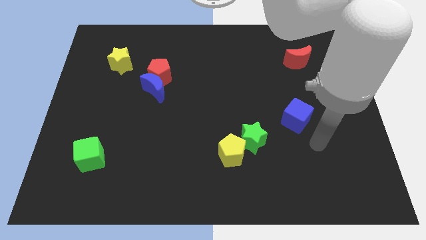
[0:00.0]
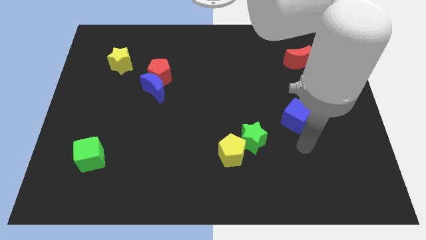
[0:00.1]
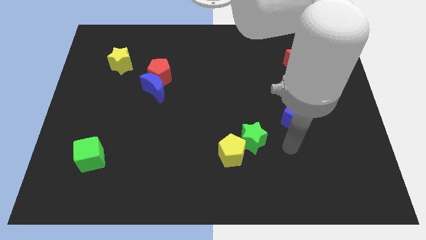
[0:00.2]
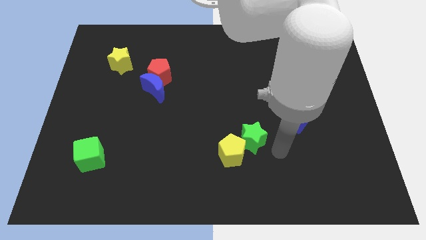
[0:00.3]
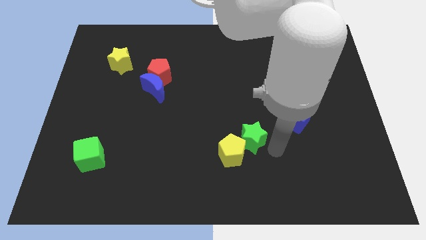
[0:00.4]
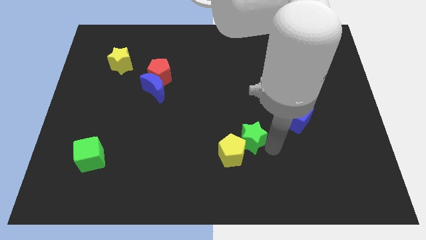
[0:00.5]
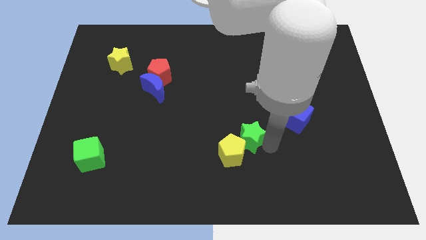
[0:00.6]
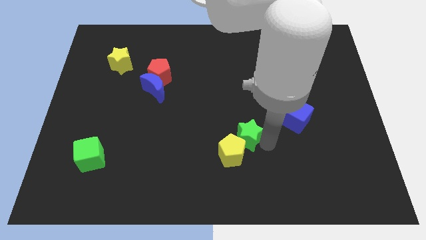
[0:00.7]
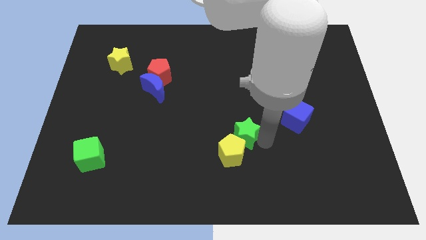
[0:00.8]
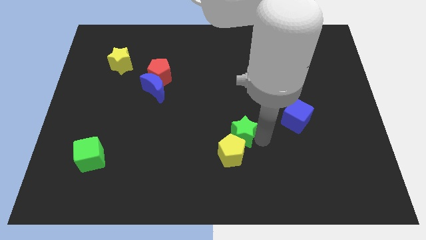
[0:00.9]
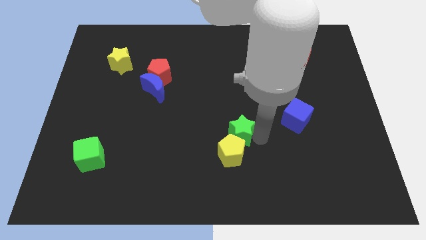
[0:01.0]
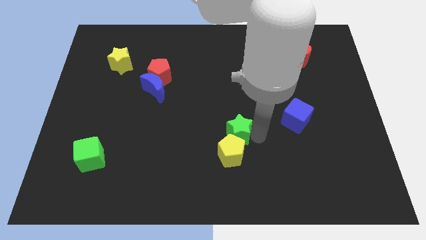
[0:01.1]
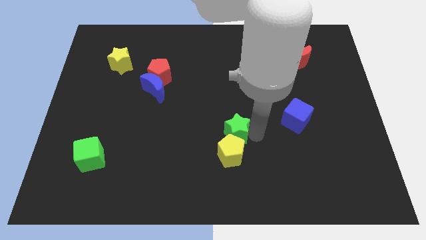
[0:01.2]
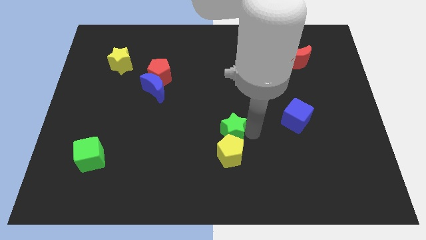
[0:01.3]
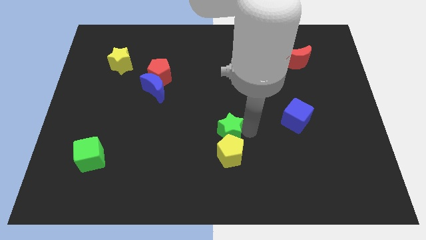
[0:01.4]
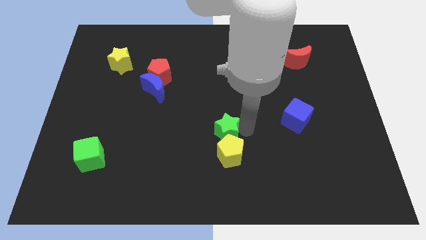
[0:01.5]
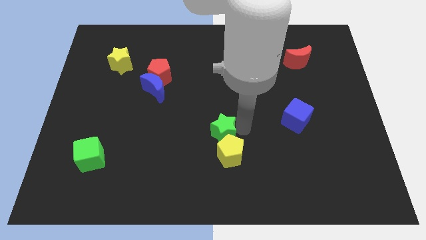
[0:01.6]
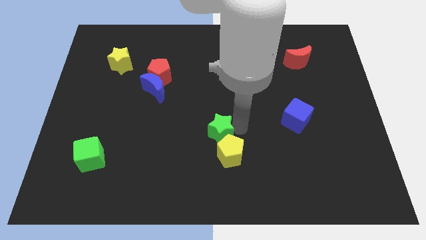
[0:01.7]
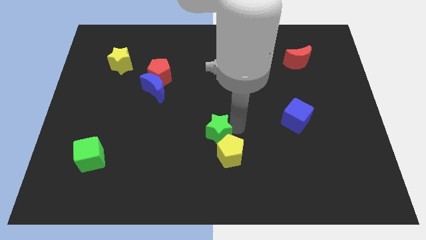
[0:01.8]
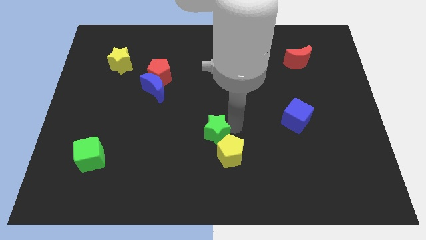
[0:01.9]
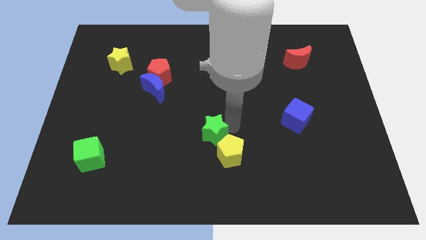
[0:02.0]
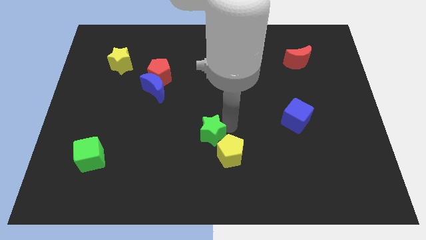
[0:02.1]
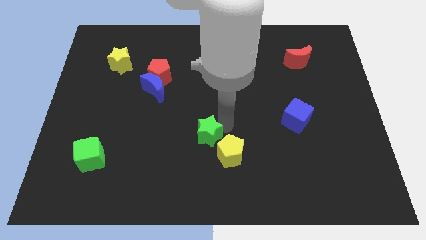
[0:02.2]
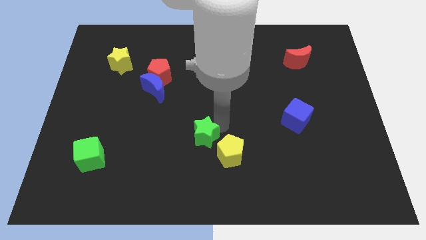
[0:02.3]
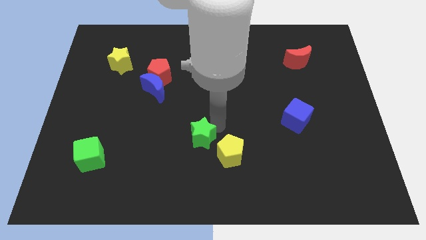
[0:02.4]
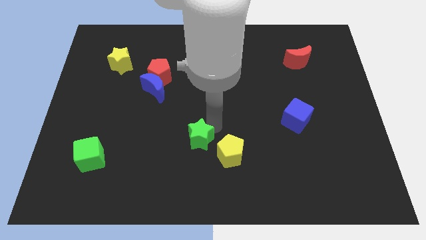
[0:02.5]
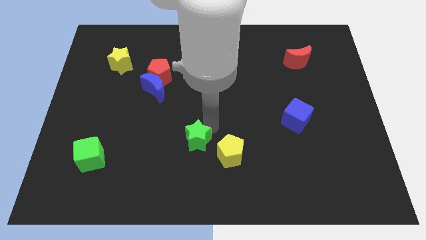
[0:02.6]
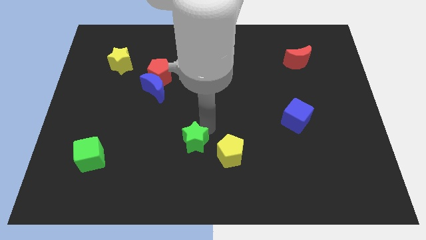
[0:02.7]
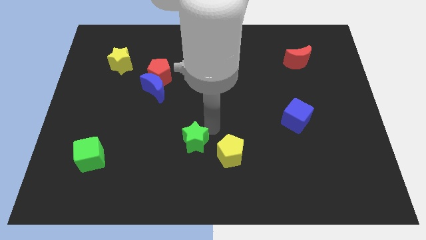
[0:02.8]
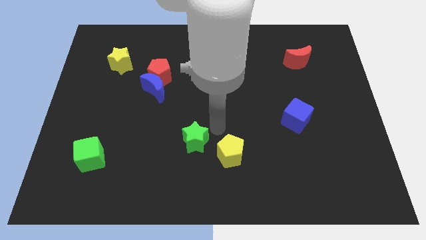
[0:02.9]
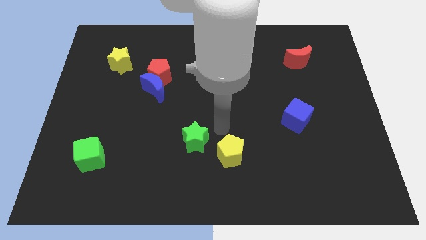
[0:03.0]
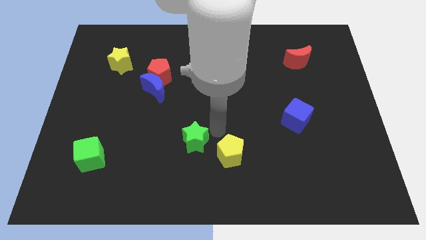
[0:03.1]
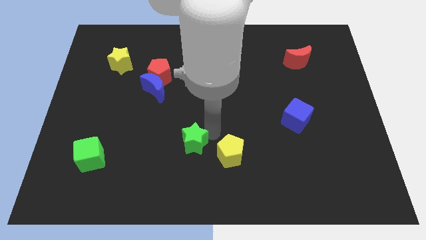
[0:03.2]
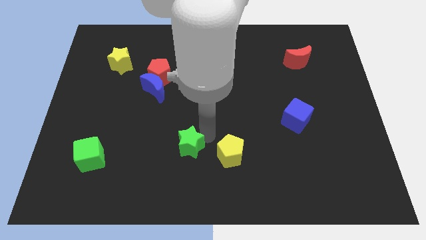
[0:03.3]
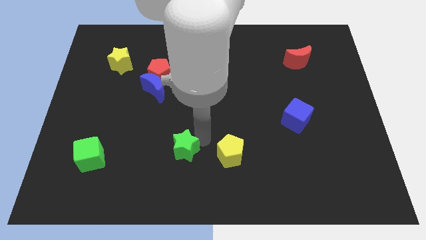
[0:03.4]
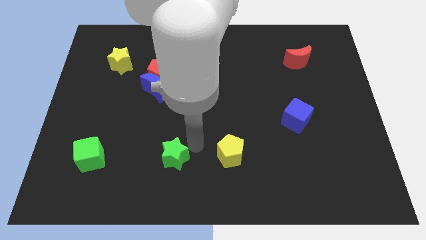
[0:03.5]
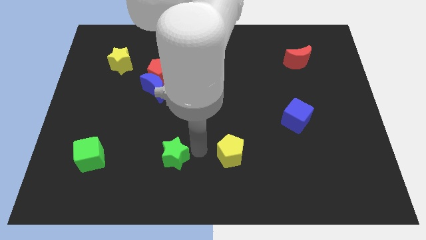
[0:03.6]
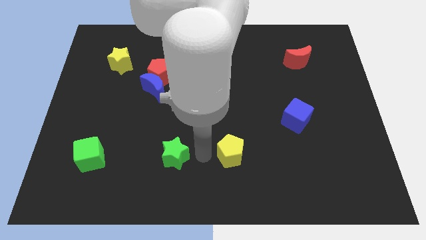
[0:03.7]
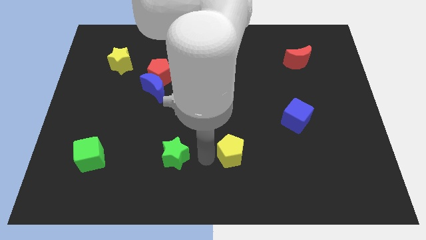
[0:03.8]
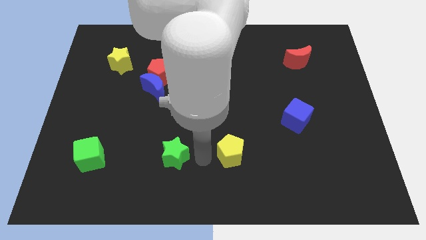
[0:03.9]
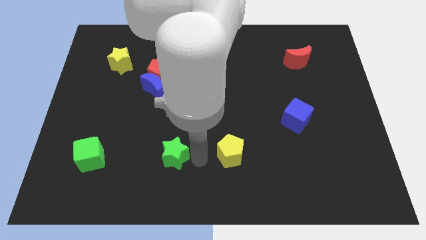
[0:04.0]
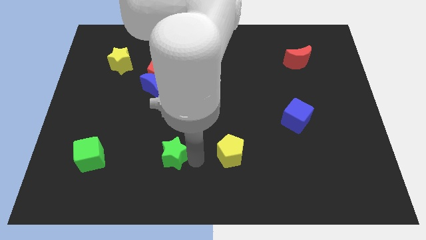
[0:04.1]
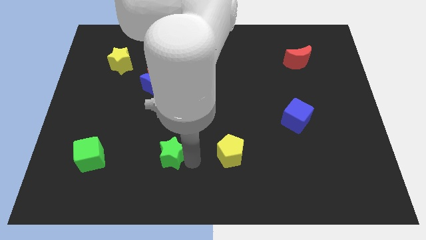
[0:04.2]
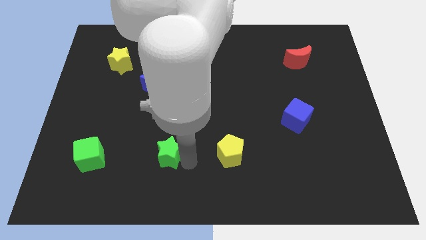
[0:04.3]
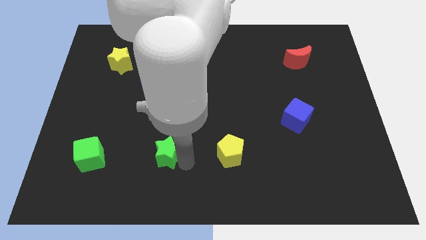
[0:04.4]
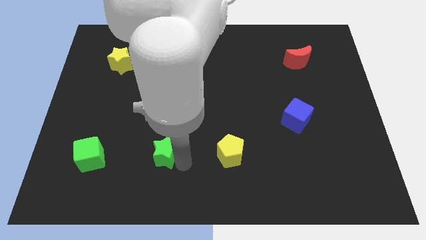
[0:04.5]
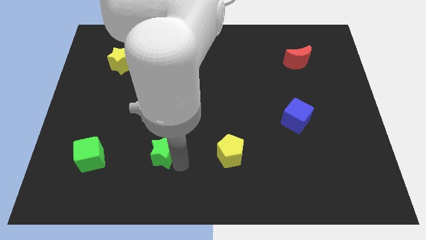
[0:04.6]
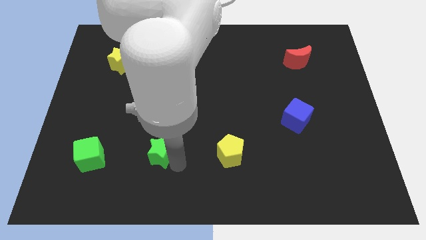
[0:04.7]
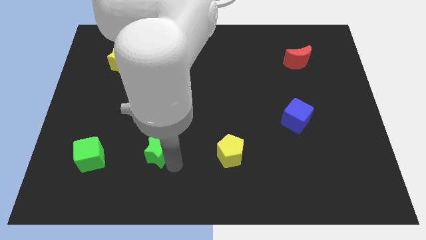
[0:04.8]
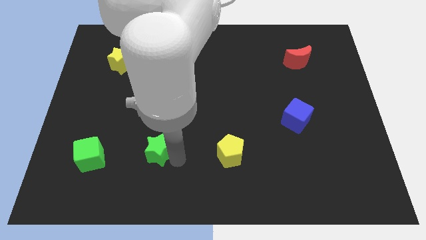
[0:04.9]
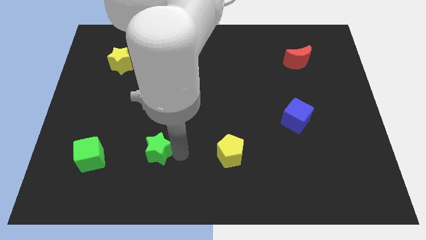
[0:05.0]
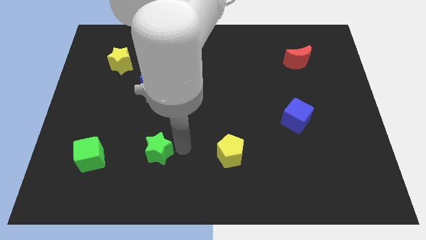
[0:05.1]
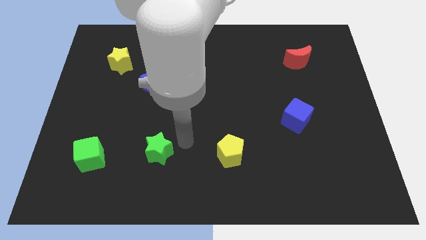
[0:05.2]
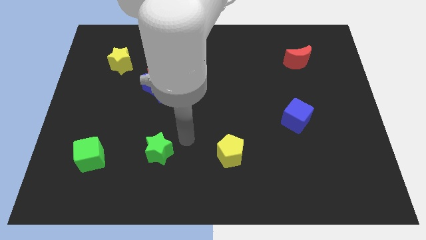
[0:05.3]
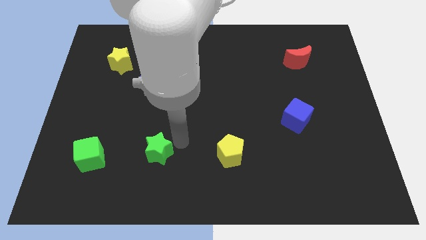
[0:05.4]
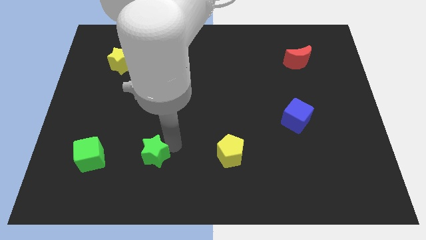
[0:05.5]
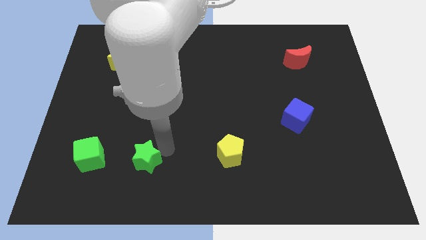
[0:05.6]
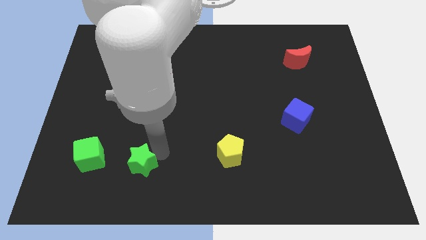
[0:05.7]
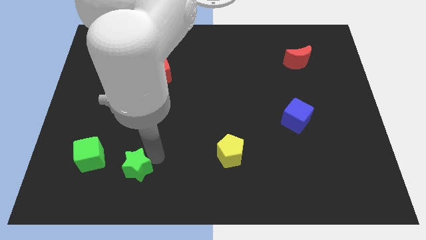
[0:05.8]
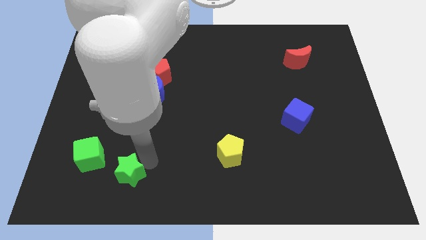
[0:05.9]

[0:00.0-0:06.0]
move the green star to the bottom right side of the green cube
